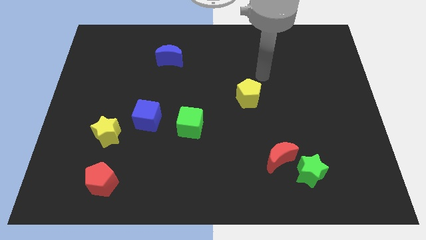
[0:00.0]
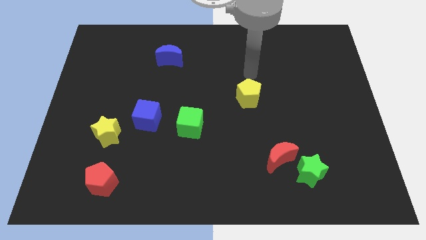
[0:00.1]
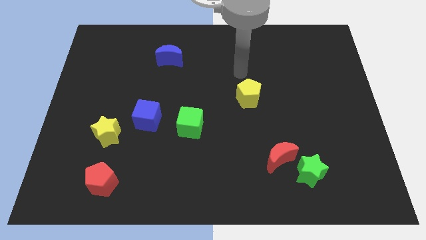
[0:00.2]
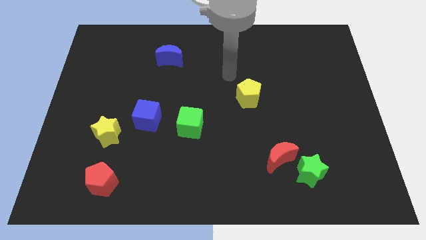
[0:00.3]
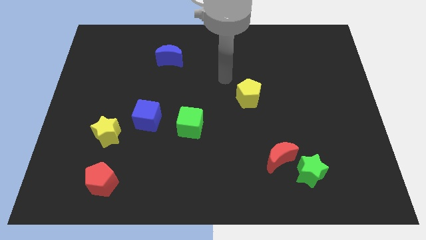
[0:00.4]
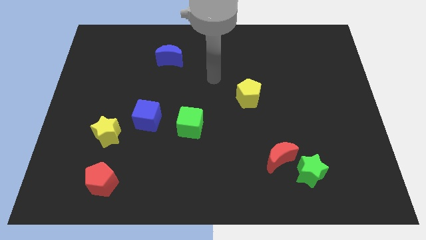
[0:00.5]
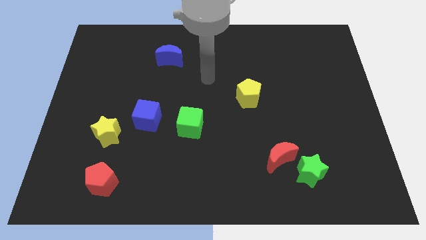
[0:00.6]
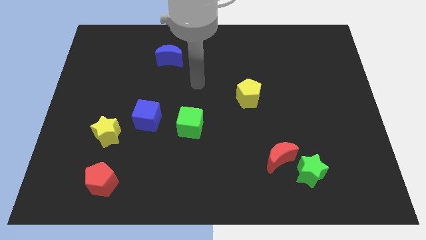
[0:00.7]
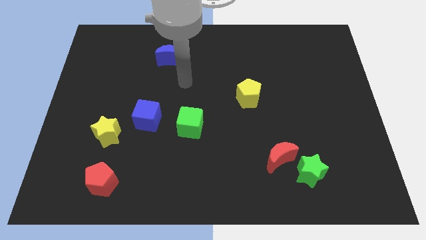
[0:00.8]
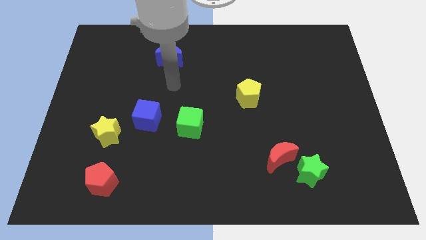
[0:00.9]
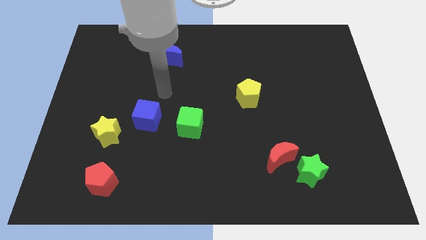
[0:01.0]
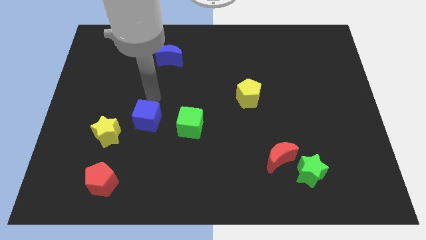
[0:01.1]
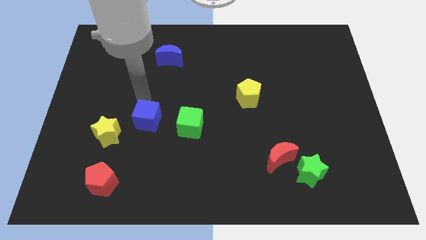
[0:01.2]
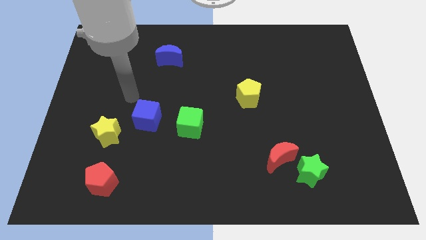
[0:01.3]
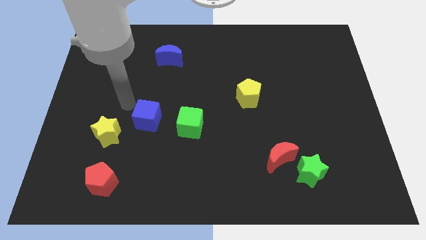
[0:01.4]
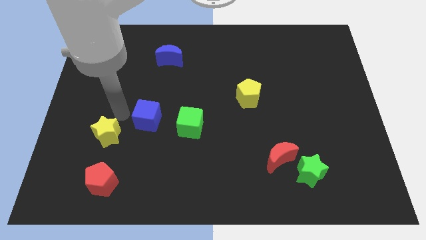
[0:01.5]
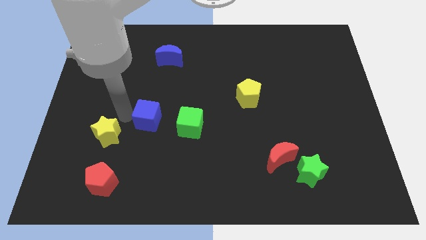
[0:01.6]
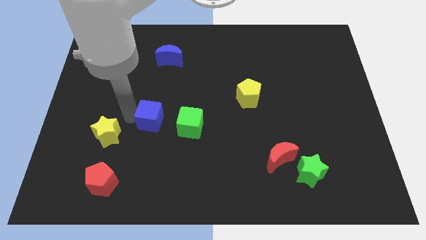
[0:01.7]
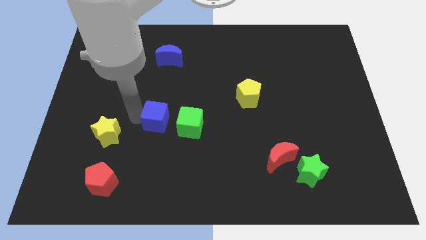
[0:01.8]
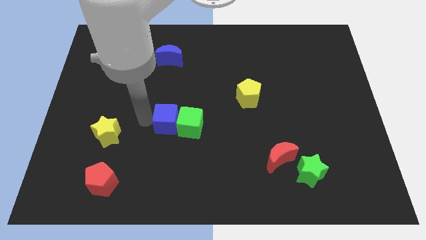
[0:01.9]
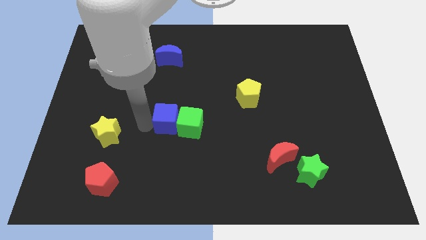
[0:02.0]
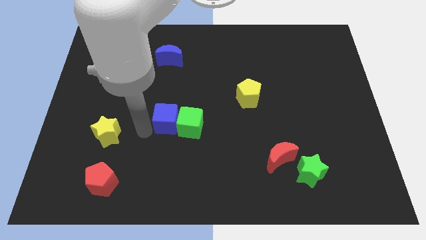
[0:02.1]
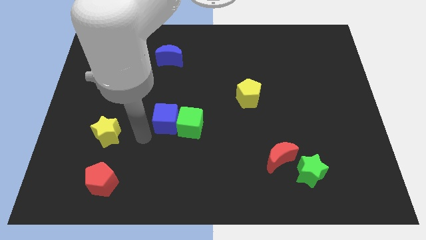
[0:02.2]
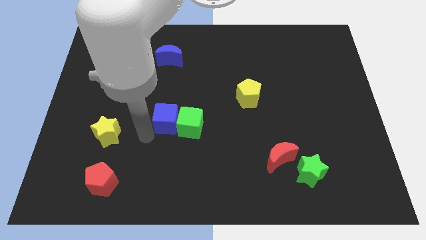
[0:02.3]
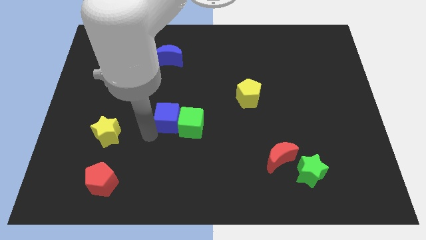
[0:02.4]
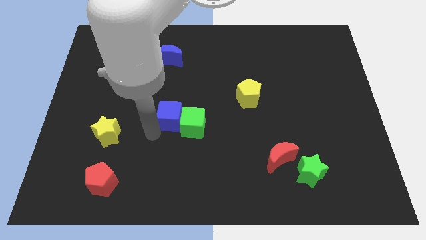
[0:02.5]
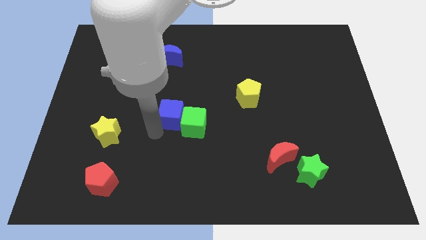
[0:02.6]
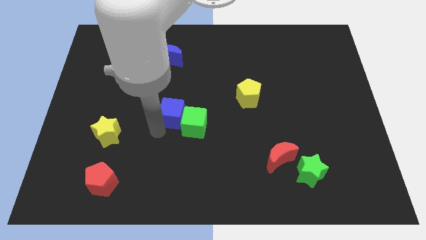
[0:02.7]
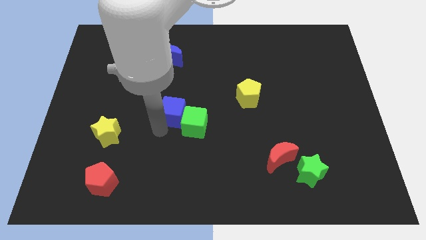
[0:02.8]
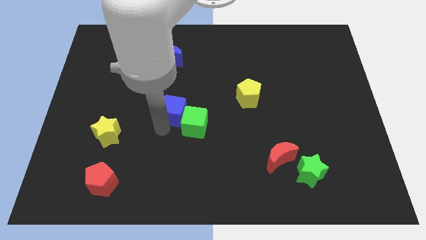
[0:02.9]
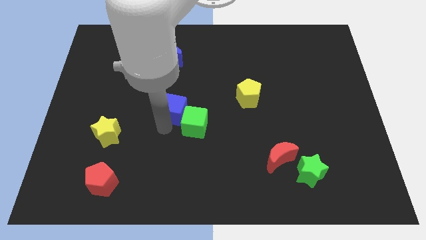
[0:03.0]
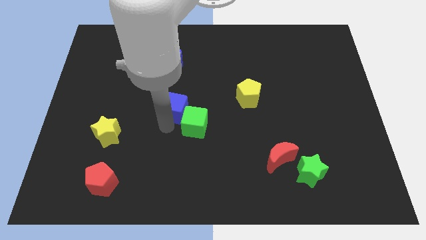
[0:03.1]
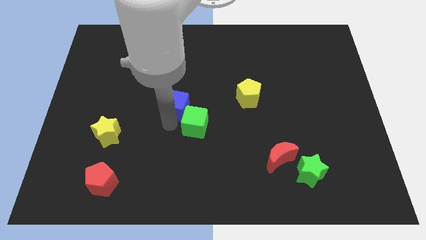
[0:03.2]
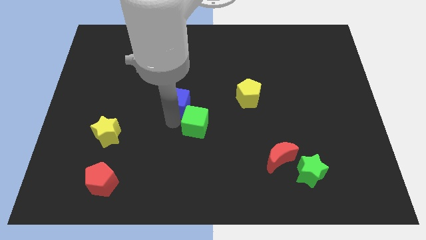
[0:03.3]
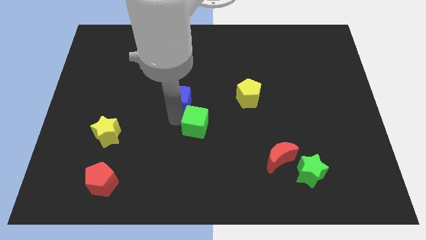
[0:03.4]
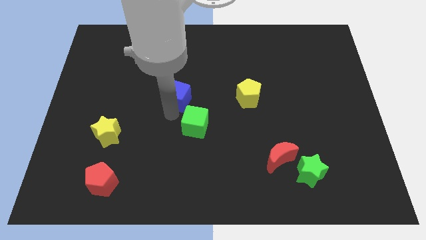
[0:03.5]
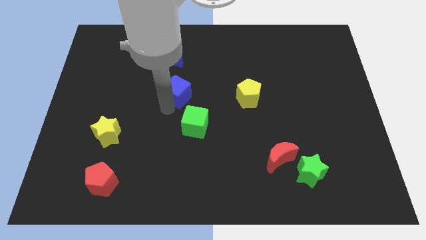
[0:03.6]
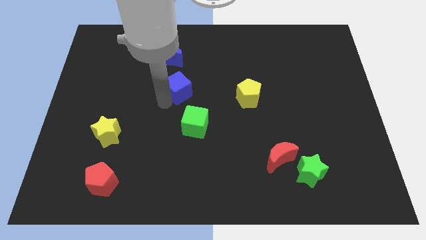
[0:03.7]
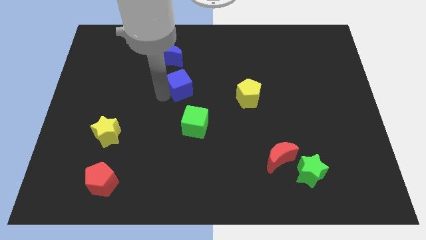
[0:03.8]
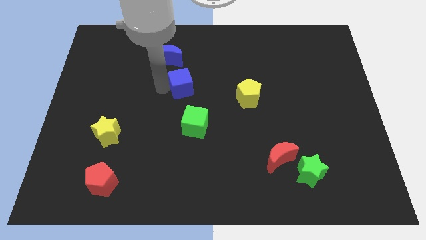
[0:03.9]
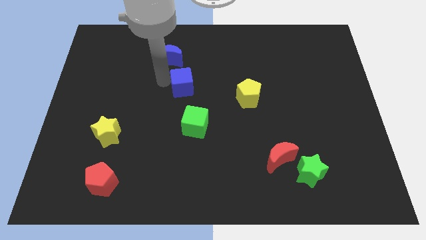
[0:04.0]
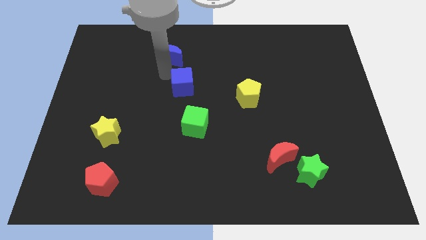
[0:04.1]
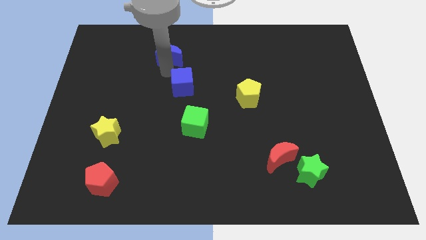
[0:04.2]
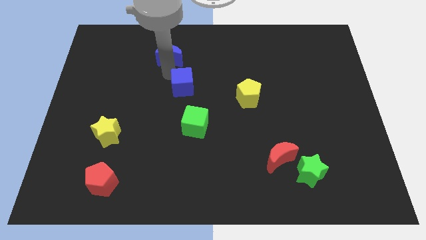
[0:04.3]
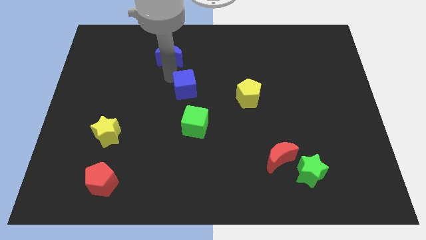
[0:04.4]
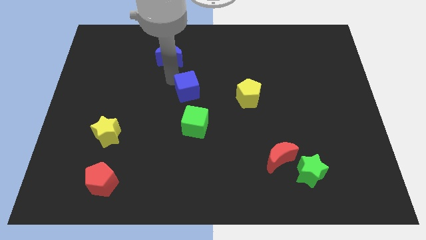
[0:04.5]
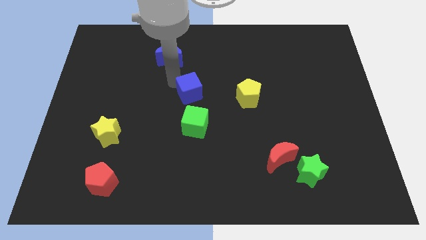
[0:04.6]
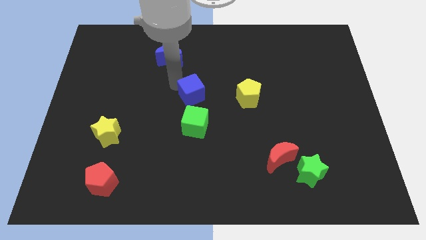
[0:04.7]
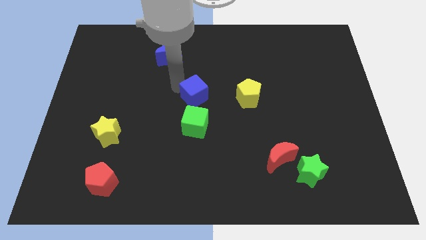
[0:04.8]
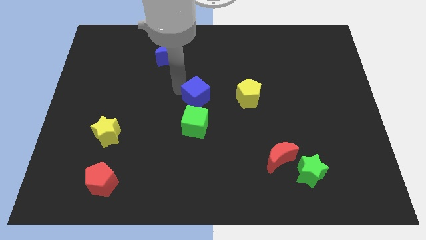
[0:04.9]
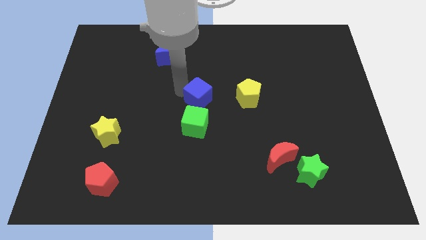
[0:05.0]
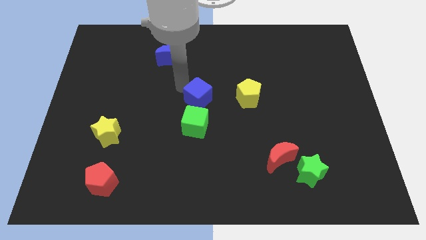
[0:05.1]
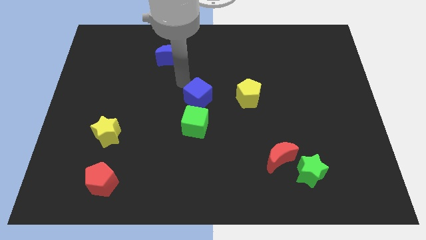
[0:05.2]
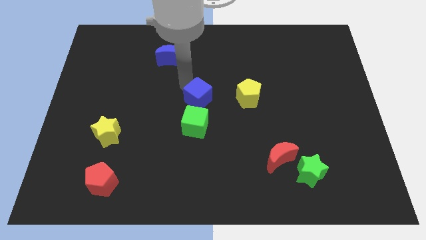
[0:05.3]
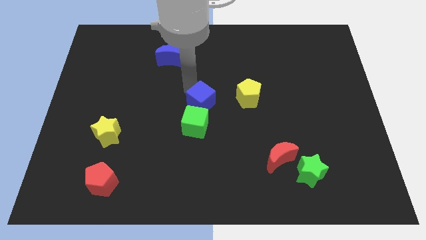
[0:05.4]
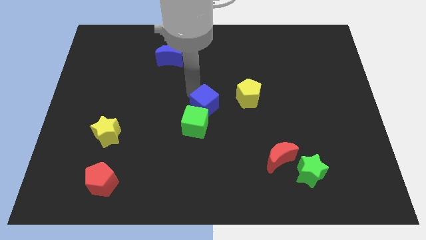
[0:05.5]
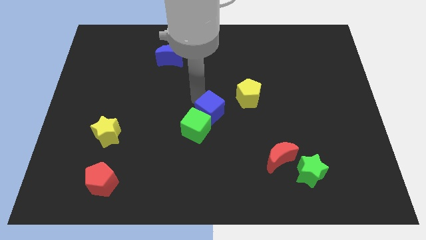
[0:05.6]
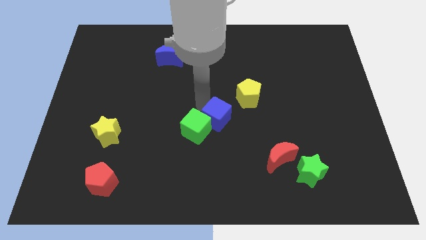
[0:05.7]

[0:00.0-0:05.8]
move the blue cube right of the green cube

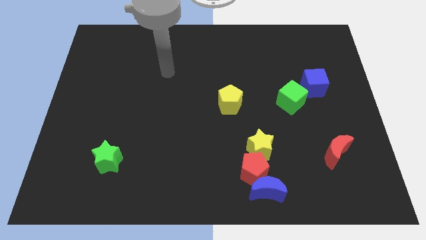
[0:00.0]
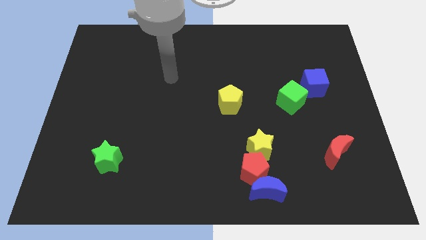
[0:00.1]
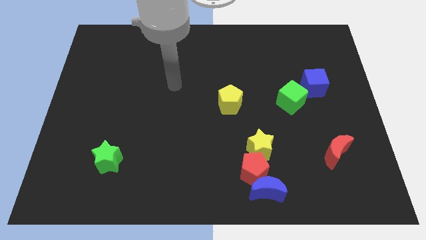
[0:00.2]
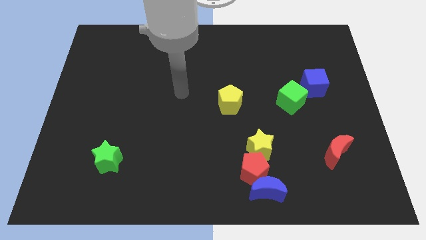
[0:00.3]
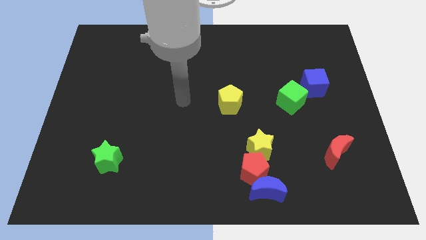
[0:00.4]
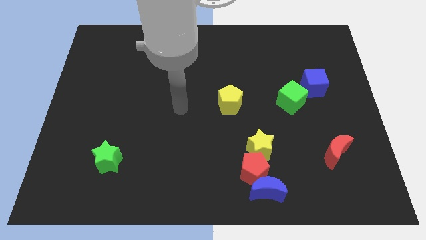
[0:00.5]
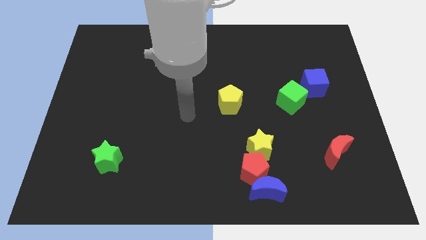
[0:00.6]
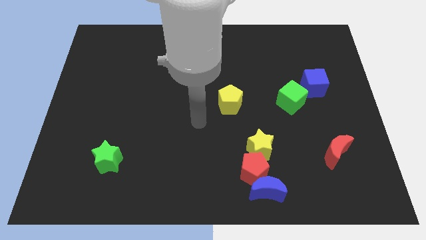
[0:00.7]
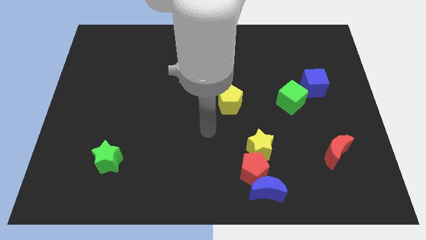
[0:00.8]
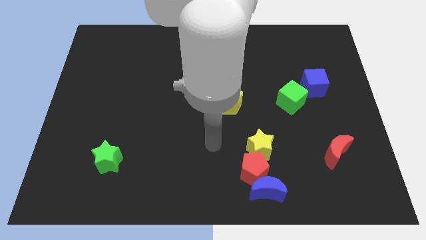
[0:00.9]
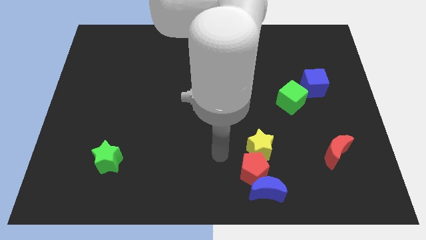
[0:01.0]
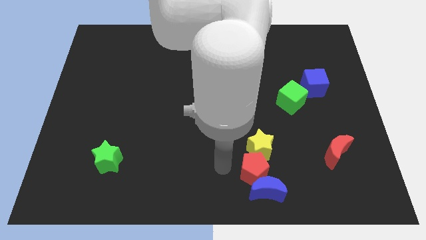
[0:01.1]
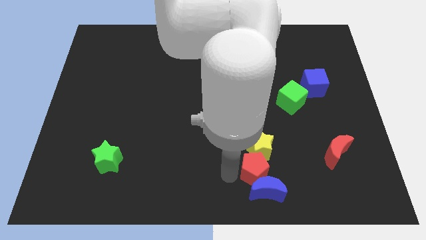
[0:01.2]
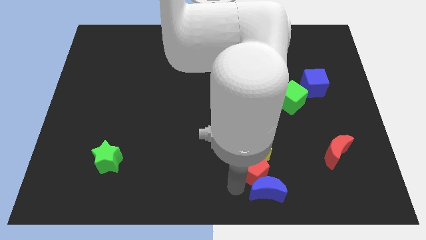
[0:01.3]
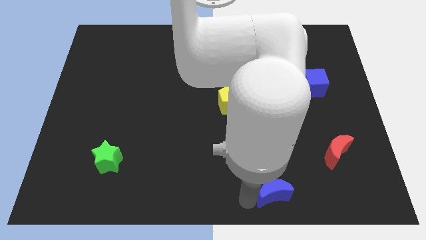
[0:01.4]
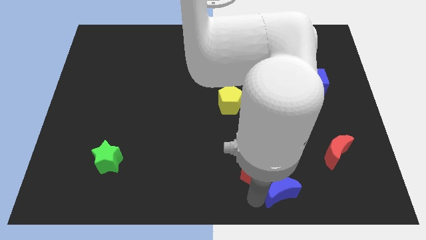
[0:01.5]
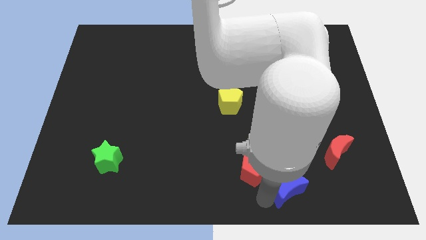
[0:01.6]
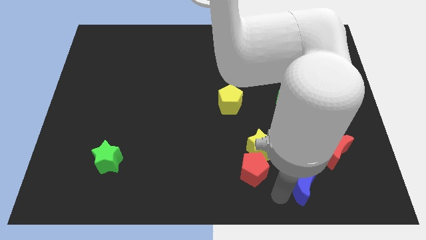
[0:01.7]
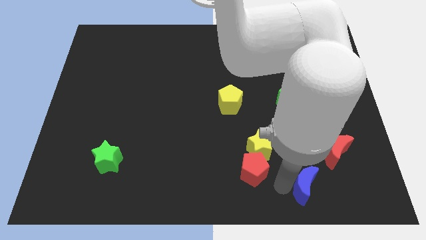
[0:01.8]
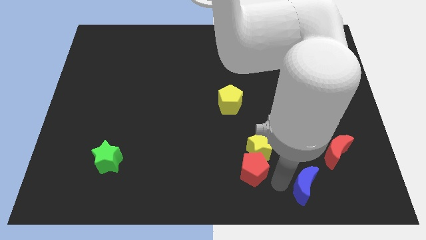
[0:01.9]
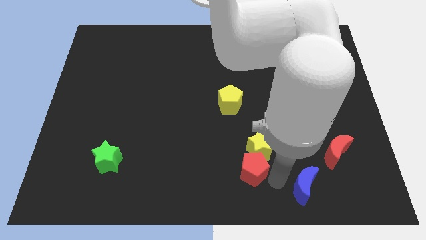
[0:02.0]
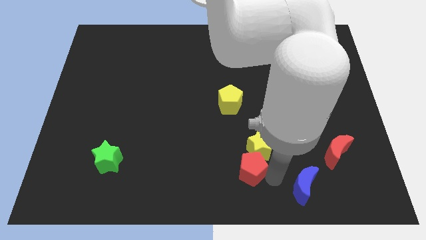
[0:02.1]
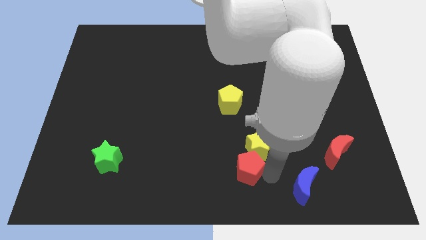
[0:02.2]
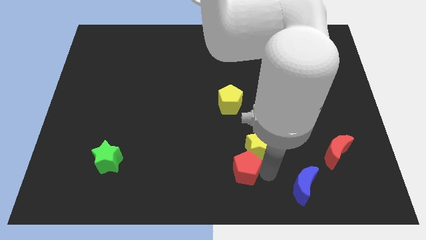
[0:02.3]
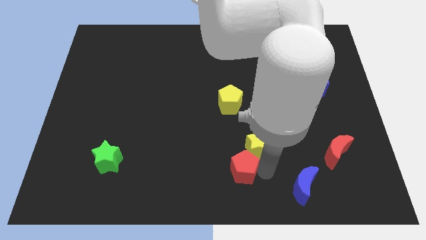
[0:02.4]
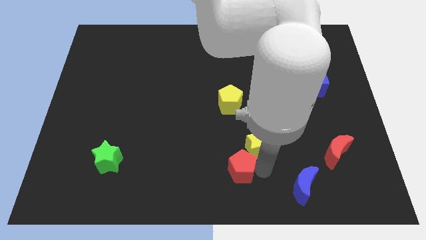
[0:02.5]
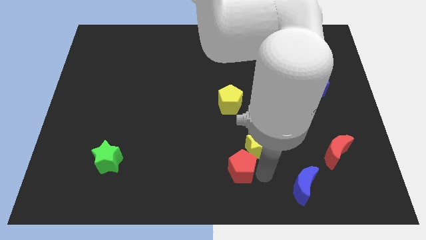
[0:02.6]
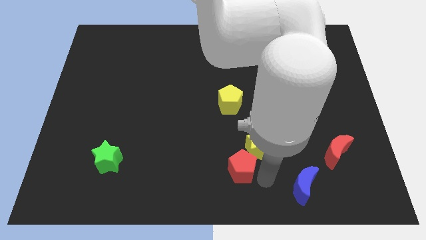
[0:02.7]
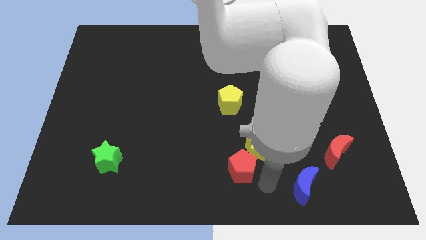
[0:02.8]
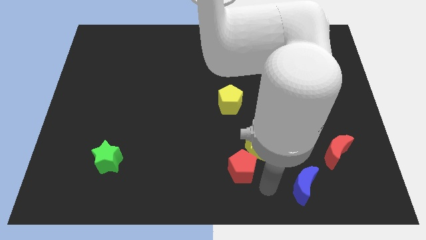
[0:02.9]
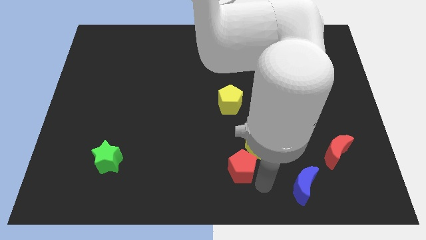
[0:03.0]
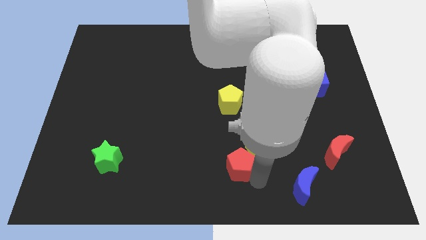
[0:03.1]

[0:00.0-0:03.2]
slide the red pentagon just left of the yellow star
